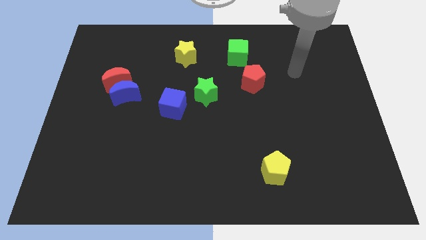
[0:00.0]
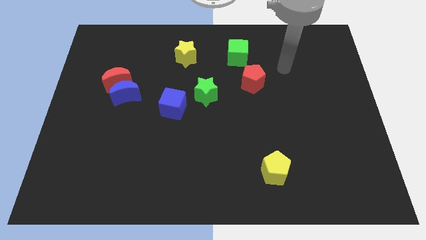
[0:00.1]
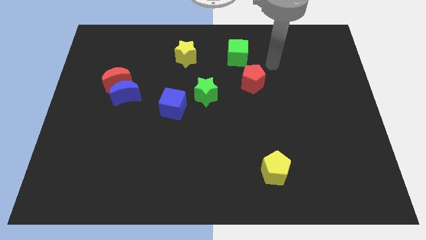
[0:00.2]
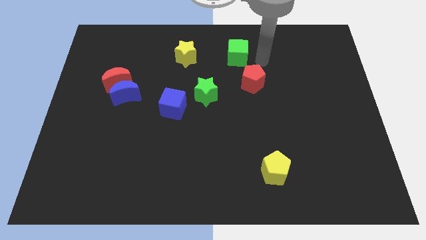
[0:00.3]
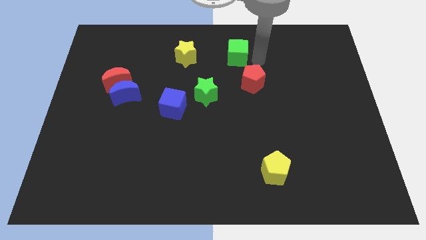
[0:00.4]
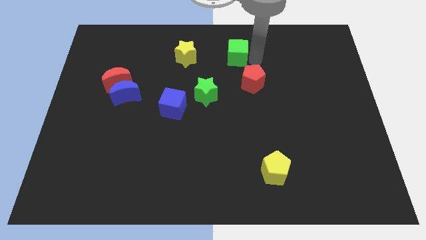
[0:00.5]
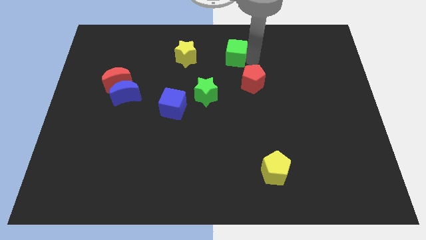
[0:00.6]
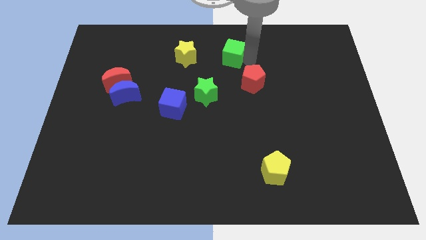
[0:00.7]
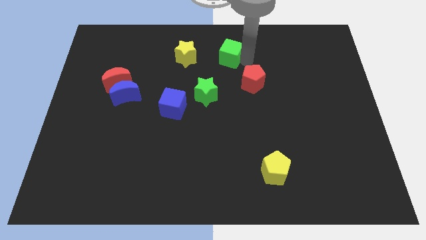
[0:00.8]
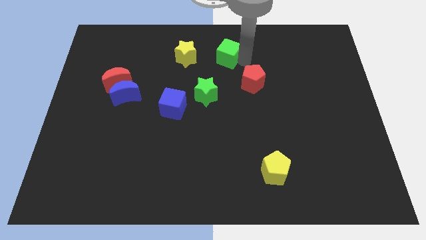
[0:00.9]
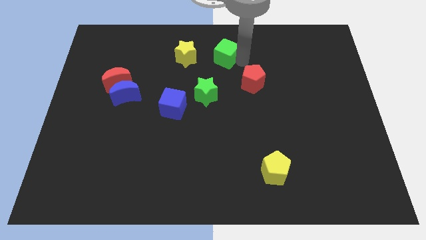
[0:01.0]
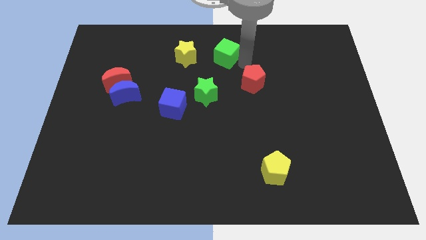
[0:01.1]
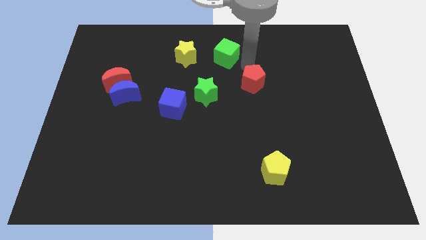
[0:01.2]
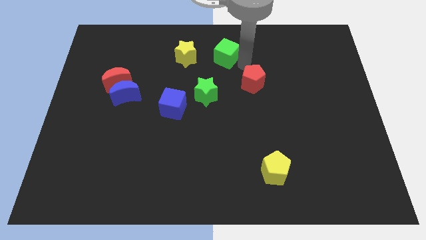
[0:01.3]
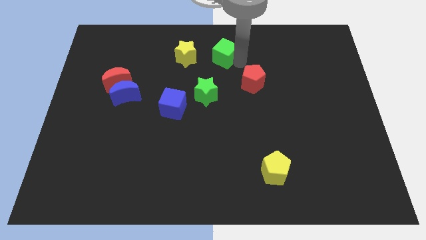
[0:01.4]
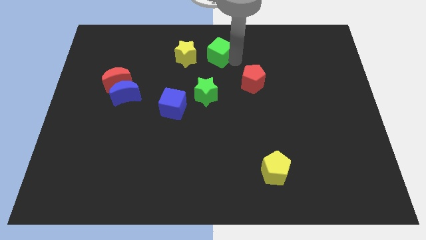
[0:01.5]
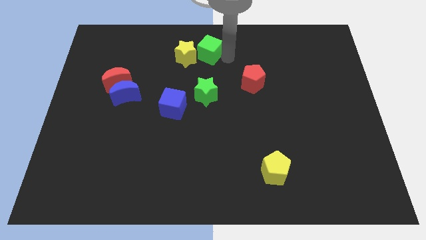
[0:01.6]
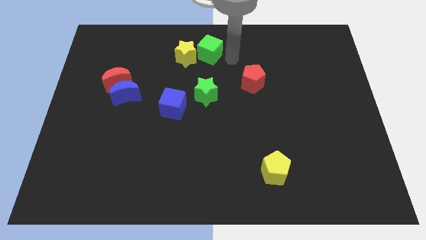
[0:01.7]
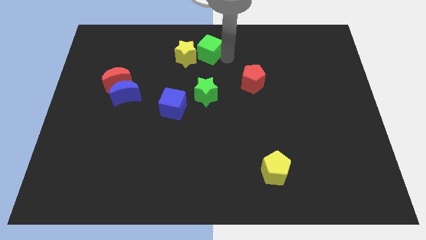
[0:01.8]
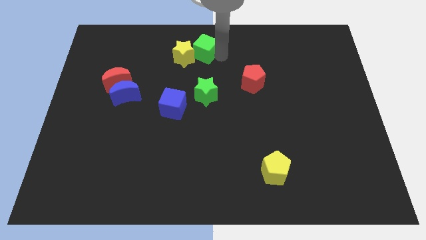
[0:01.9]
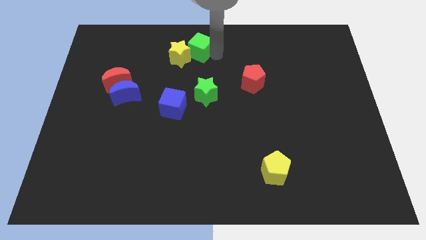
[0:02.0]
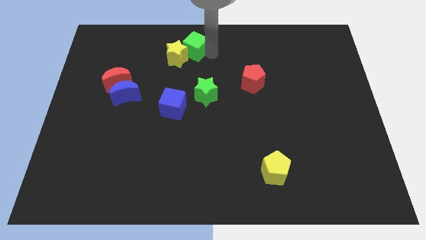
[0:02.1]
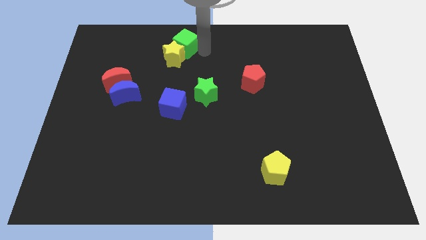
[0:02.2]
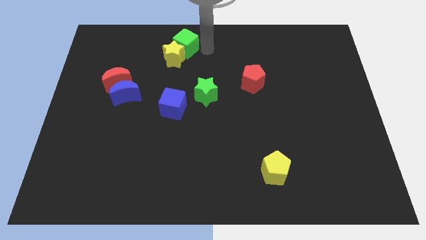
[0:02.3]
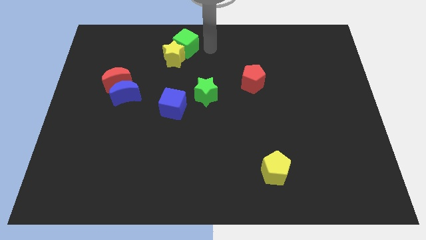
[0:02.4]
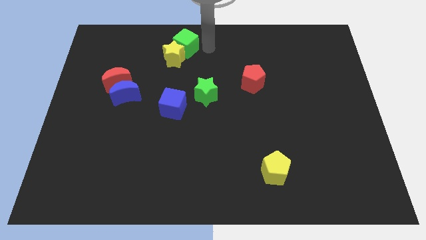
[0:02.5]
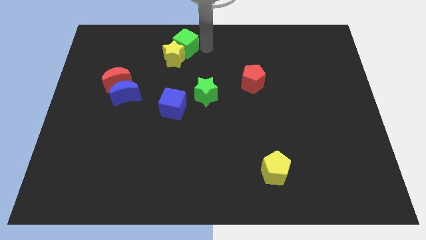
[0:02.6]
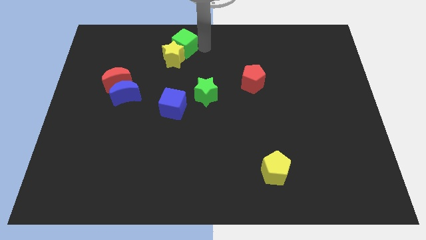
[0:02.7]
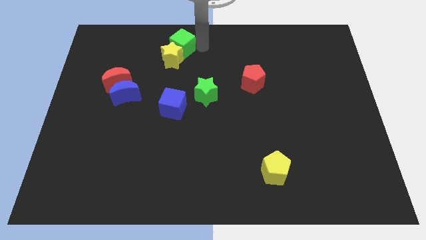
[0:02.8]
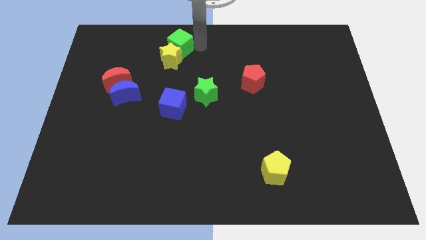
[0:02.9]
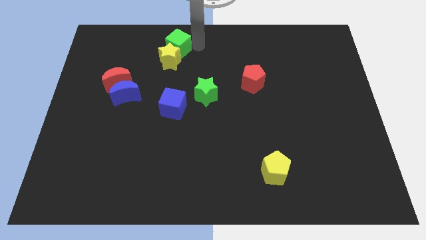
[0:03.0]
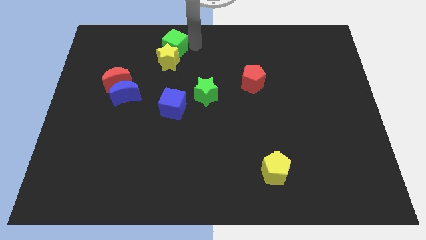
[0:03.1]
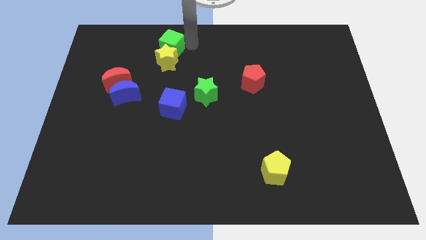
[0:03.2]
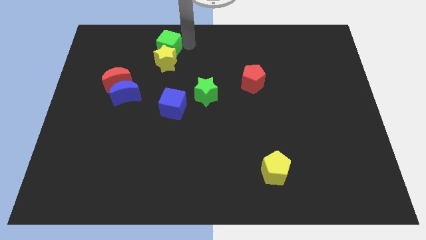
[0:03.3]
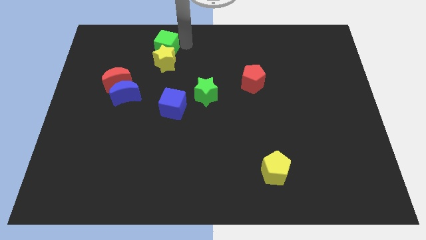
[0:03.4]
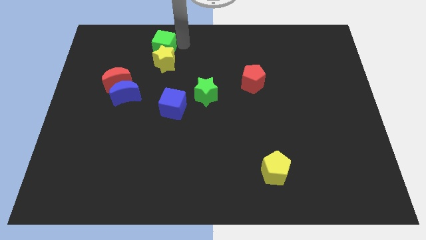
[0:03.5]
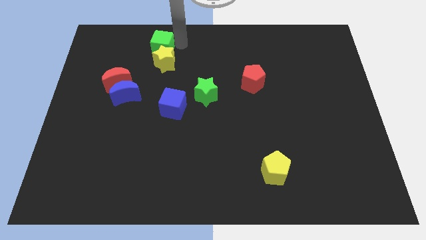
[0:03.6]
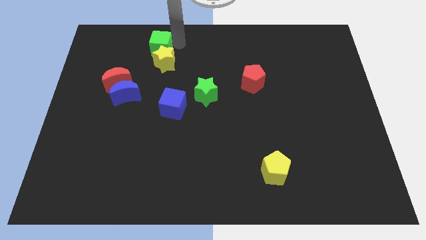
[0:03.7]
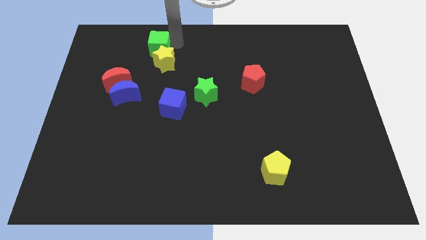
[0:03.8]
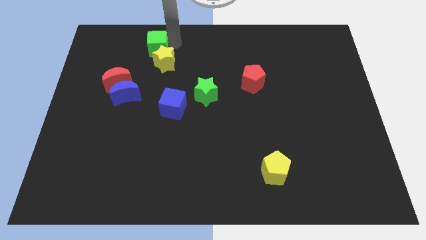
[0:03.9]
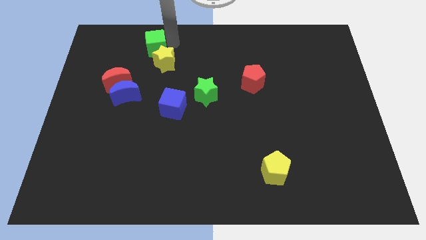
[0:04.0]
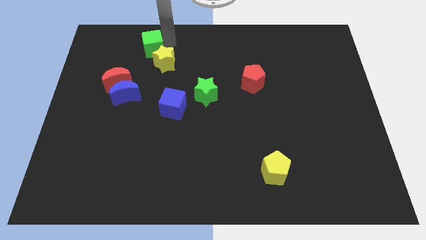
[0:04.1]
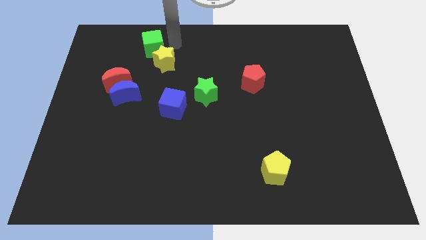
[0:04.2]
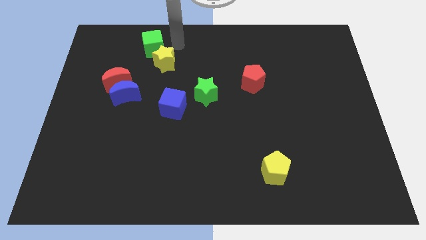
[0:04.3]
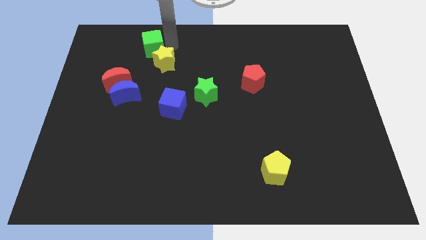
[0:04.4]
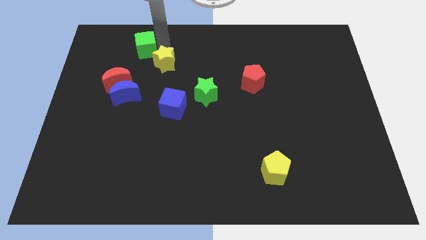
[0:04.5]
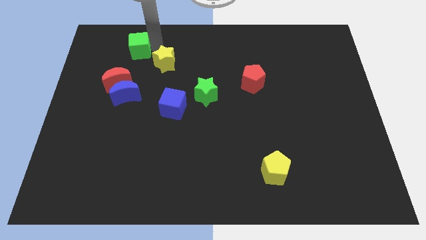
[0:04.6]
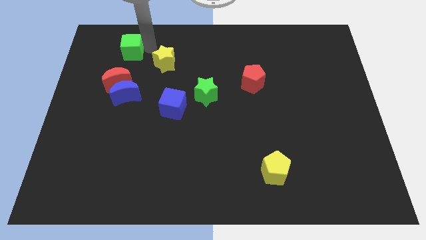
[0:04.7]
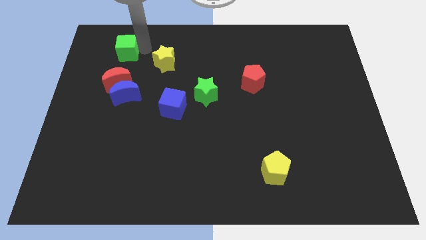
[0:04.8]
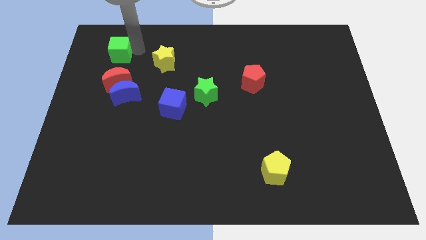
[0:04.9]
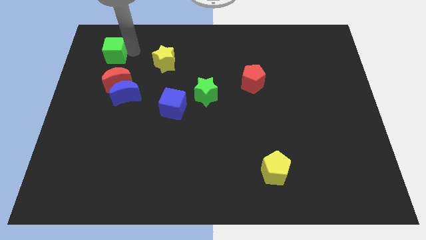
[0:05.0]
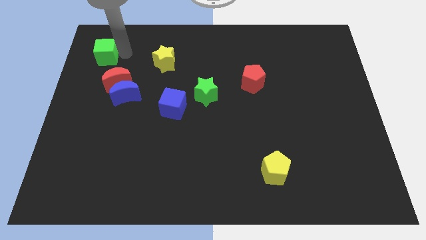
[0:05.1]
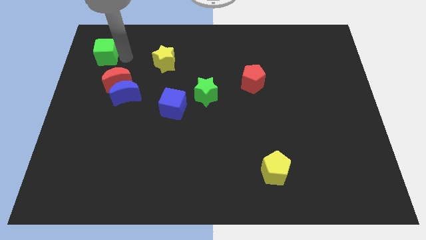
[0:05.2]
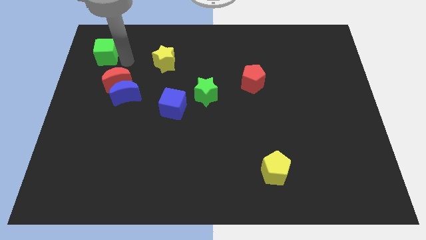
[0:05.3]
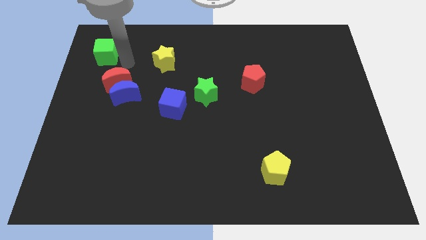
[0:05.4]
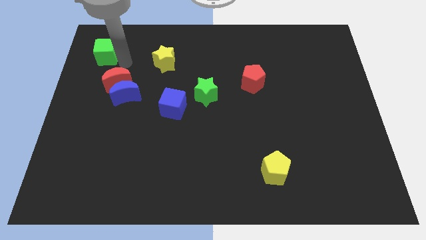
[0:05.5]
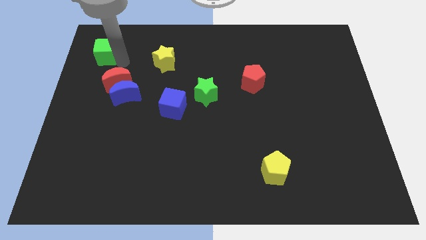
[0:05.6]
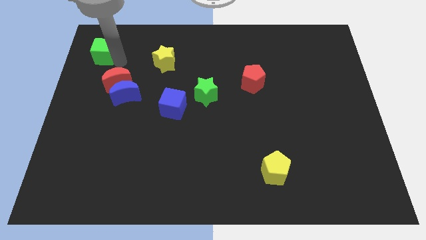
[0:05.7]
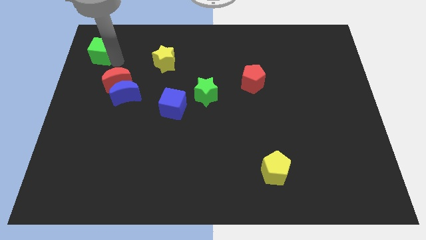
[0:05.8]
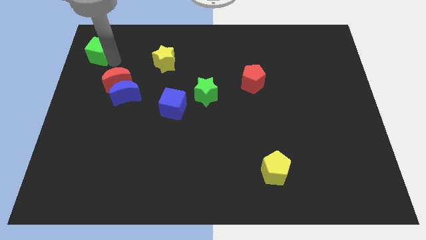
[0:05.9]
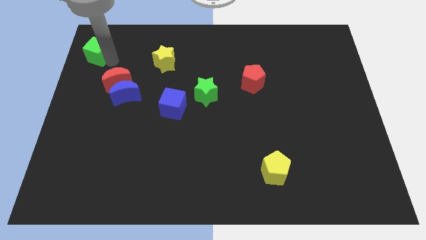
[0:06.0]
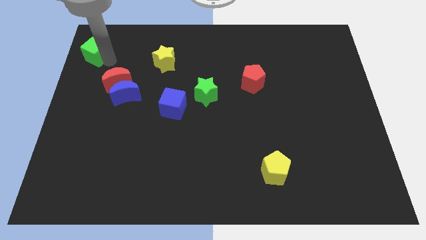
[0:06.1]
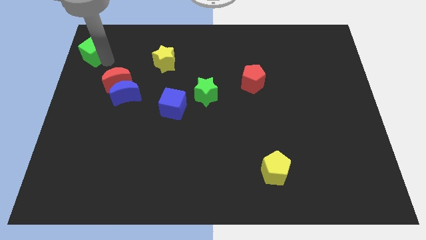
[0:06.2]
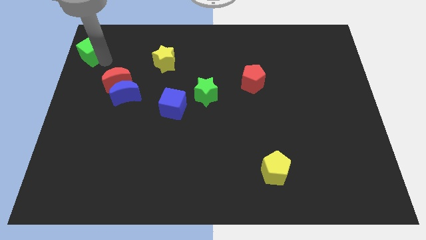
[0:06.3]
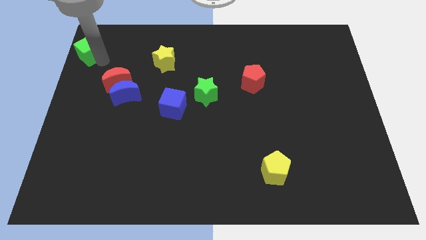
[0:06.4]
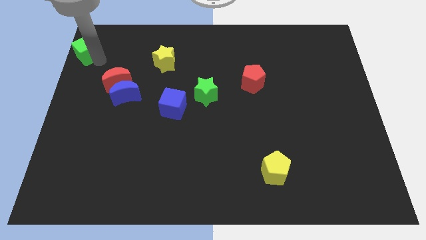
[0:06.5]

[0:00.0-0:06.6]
push the green cube to the top left corner
